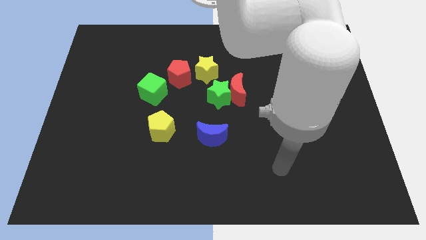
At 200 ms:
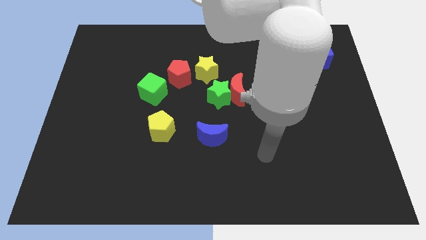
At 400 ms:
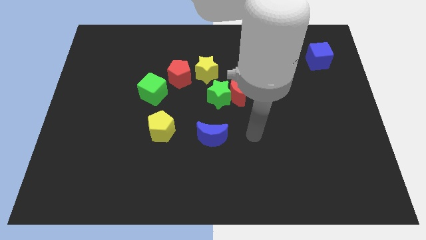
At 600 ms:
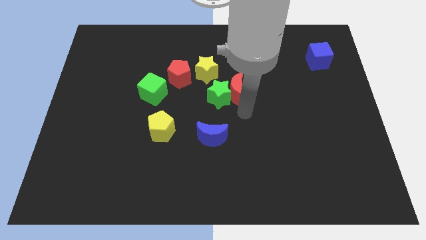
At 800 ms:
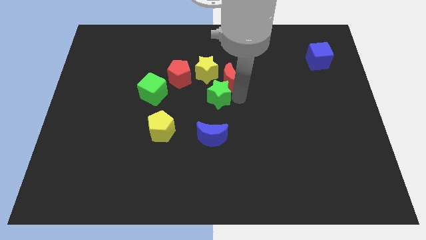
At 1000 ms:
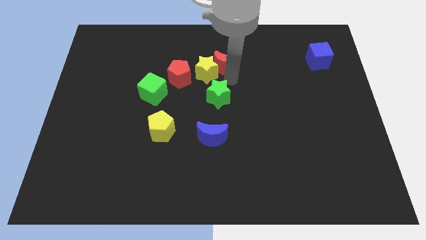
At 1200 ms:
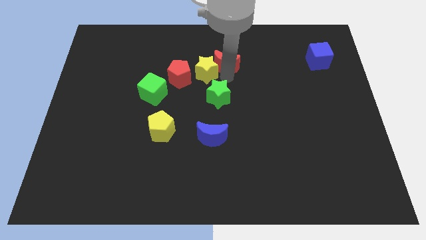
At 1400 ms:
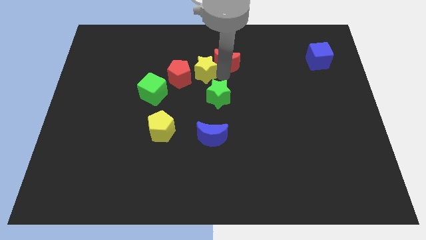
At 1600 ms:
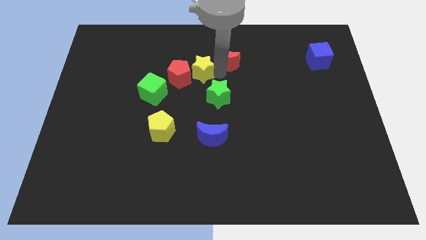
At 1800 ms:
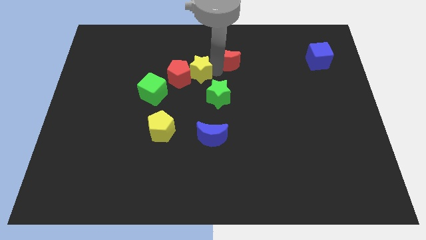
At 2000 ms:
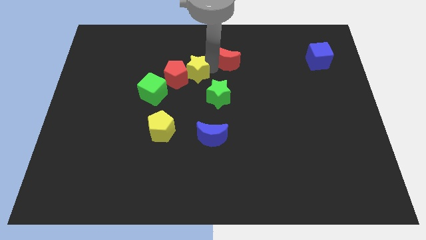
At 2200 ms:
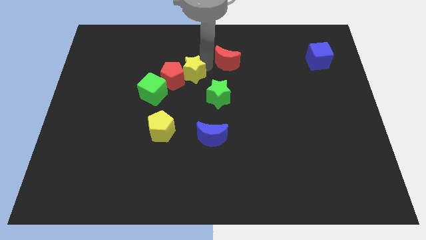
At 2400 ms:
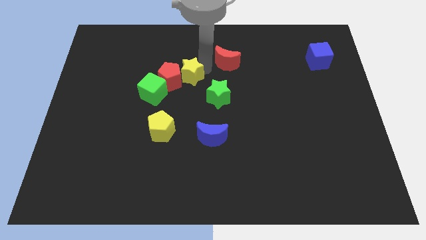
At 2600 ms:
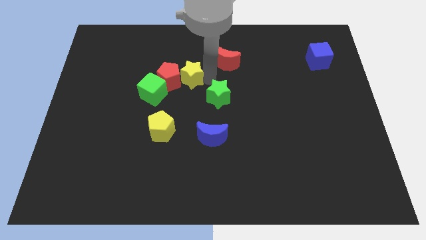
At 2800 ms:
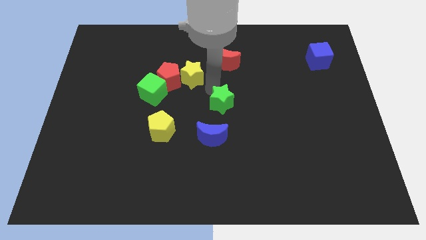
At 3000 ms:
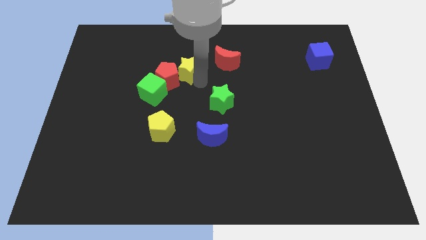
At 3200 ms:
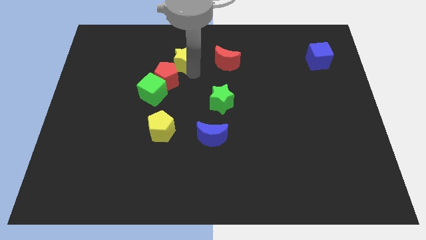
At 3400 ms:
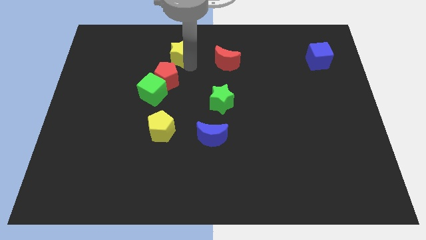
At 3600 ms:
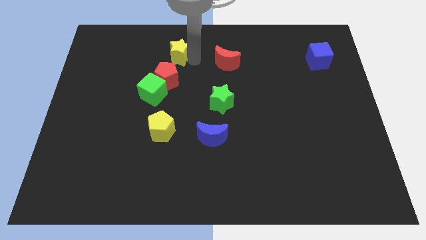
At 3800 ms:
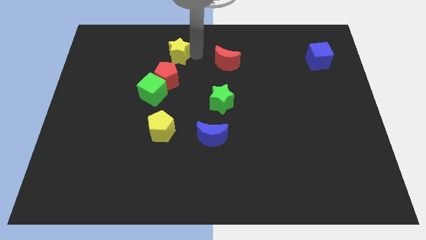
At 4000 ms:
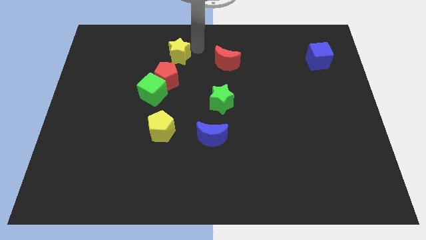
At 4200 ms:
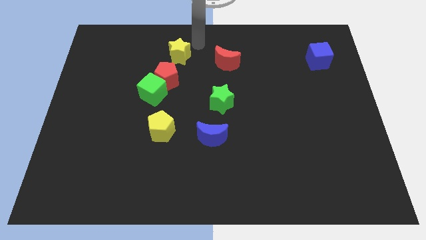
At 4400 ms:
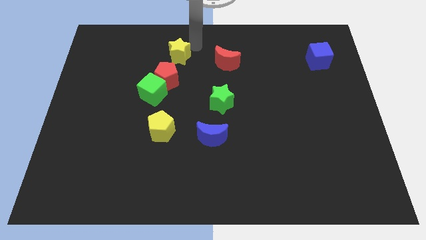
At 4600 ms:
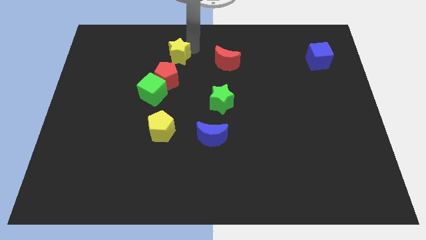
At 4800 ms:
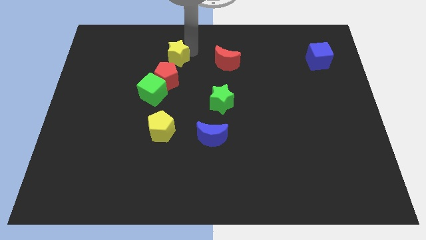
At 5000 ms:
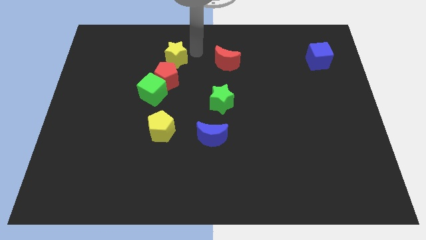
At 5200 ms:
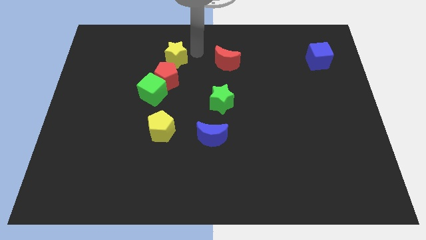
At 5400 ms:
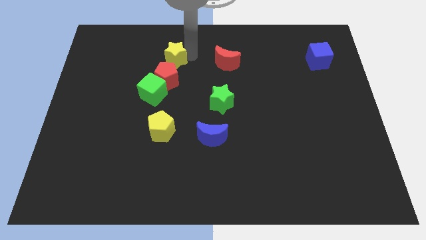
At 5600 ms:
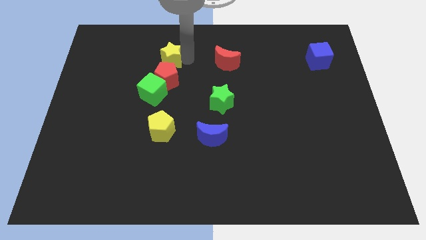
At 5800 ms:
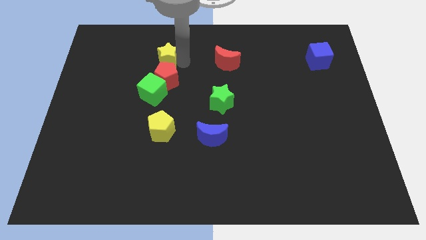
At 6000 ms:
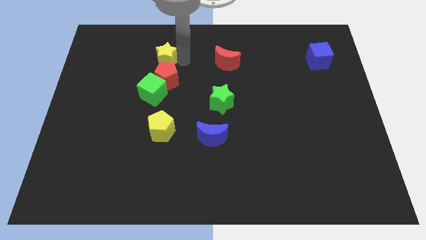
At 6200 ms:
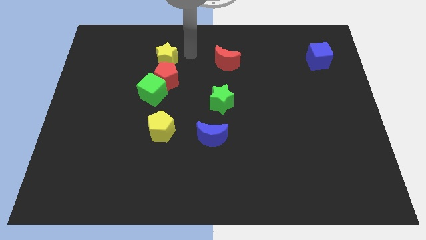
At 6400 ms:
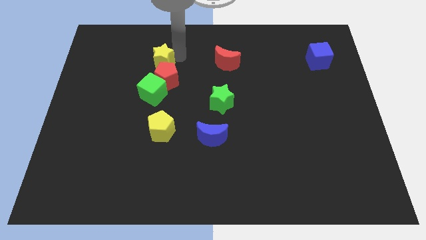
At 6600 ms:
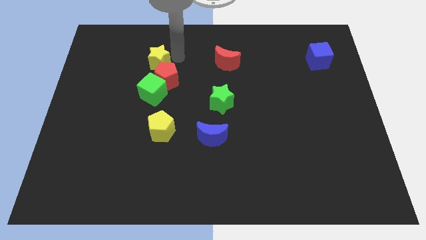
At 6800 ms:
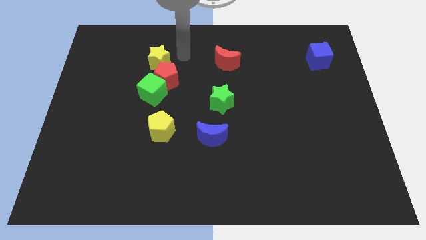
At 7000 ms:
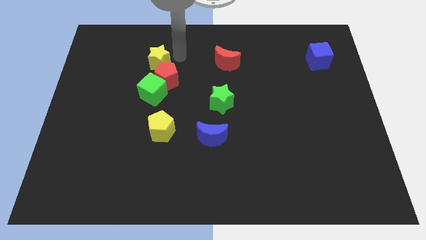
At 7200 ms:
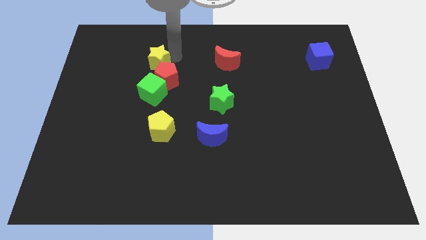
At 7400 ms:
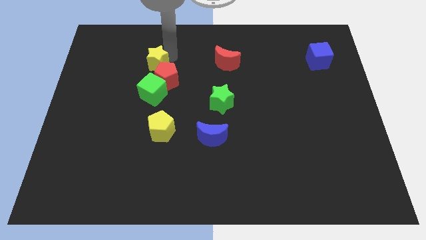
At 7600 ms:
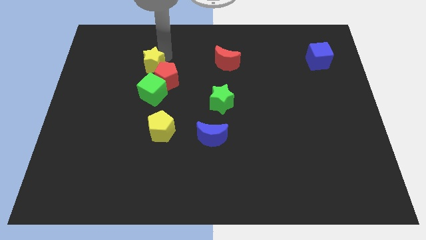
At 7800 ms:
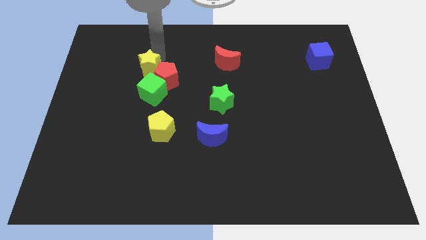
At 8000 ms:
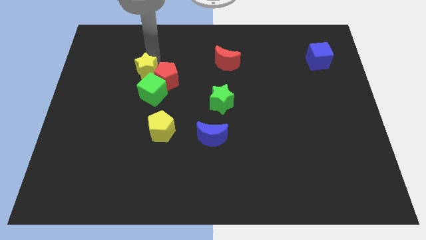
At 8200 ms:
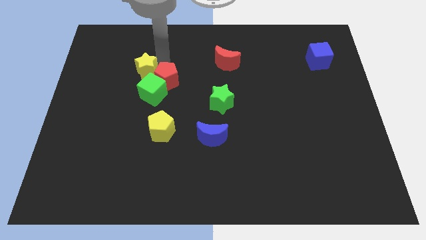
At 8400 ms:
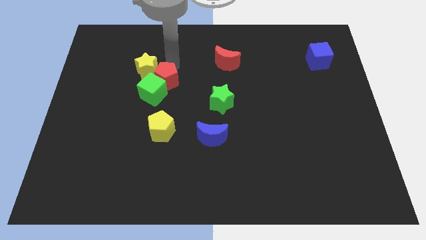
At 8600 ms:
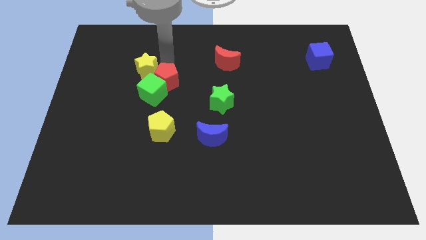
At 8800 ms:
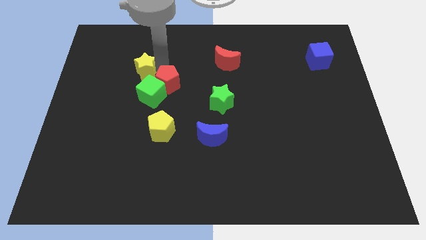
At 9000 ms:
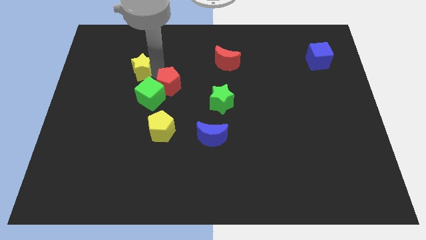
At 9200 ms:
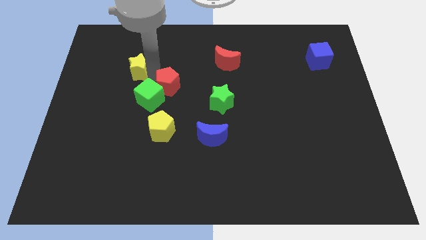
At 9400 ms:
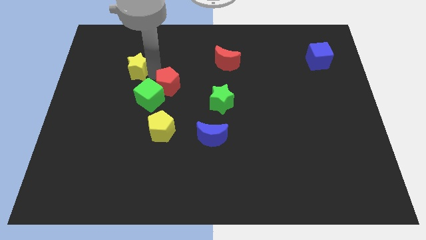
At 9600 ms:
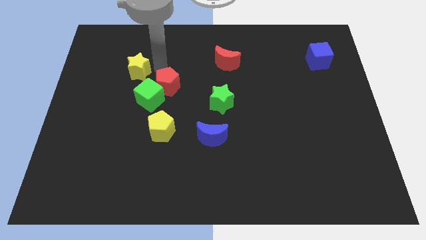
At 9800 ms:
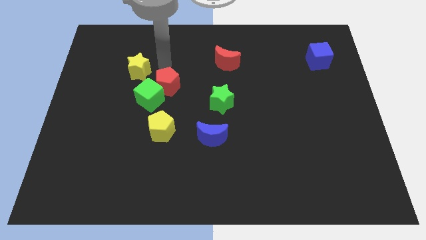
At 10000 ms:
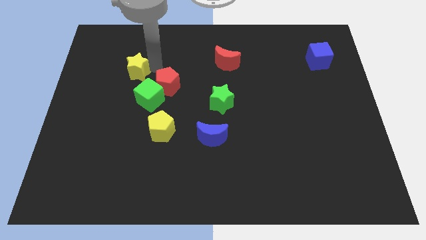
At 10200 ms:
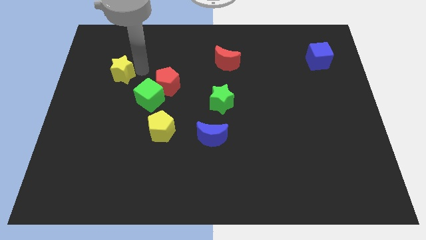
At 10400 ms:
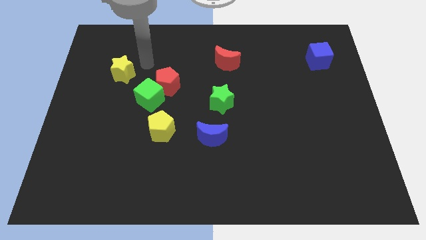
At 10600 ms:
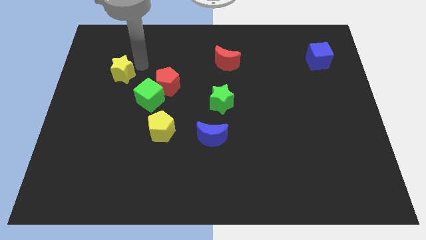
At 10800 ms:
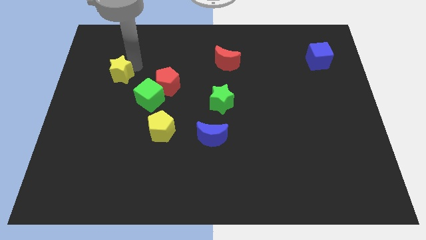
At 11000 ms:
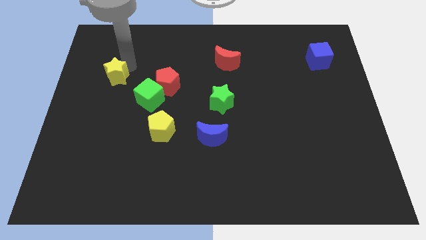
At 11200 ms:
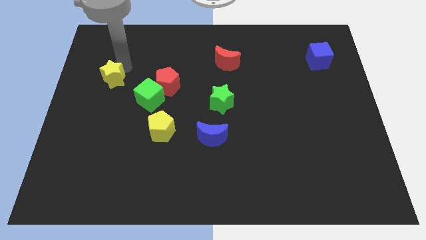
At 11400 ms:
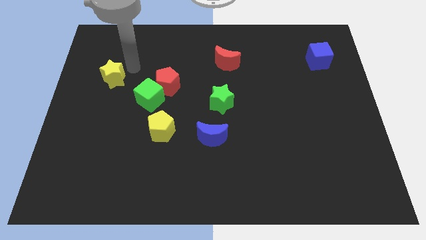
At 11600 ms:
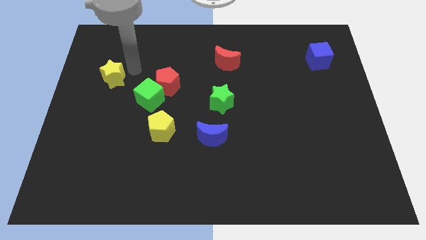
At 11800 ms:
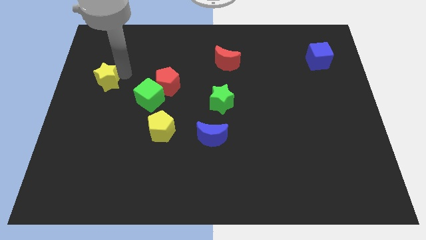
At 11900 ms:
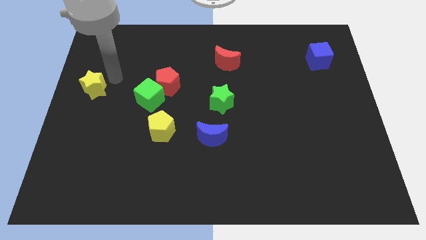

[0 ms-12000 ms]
slide the yellow star to the left side
